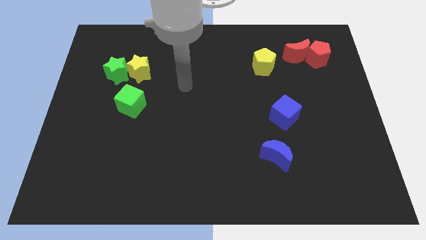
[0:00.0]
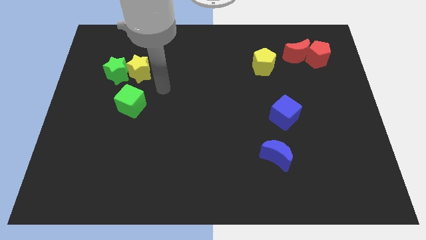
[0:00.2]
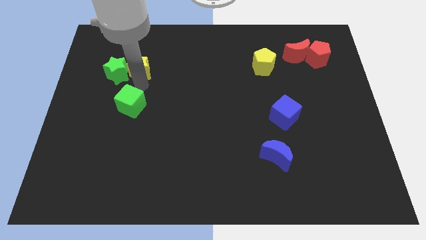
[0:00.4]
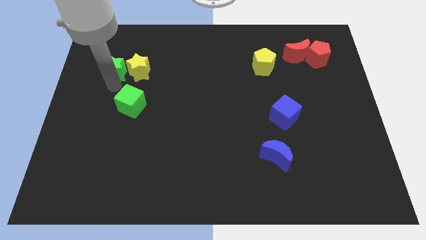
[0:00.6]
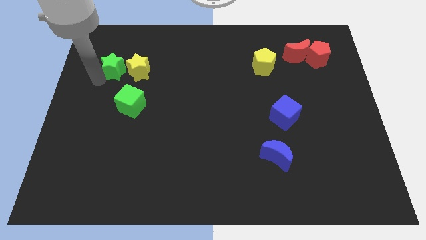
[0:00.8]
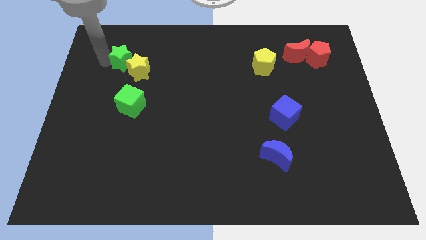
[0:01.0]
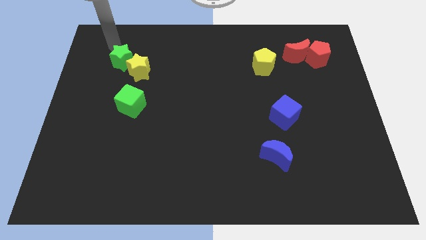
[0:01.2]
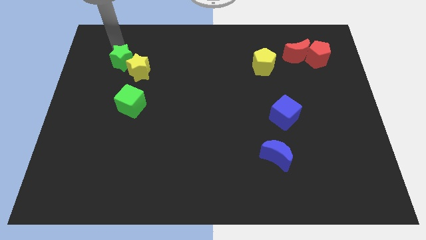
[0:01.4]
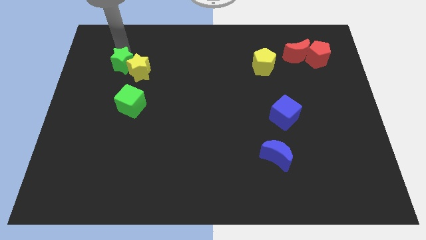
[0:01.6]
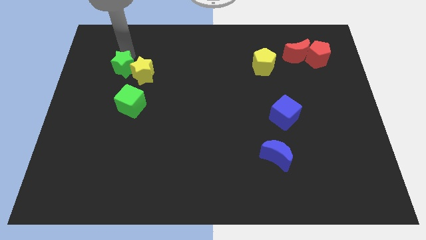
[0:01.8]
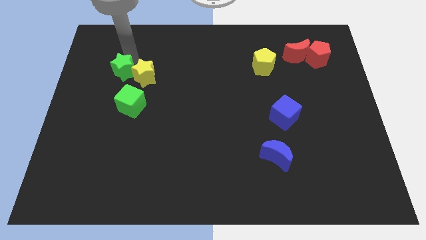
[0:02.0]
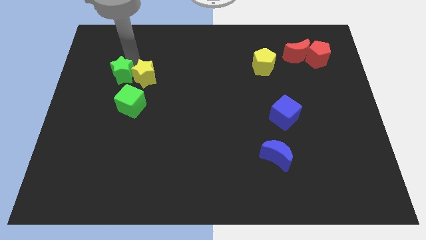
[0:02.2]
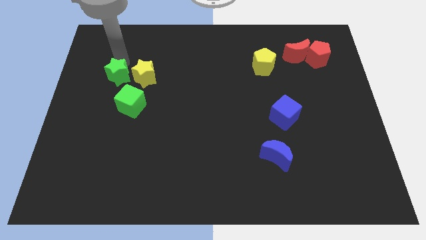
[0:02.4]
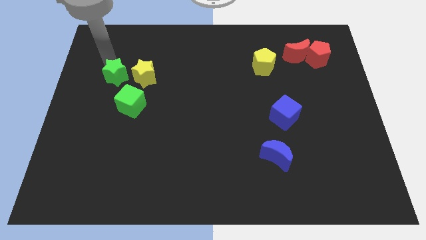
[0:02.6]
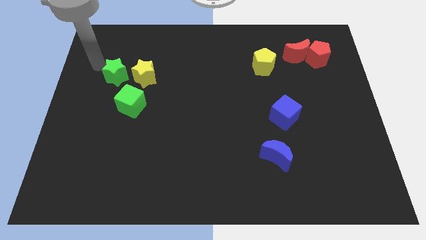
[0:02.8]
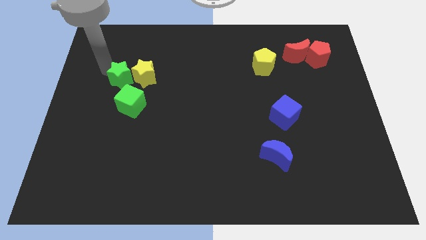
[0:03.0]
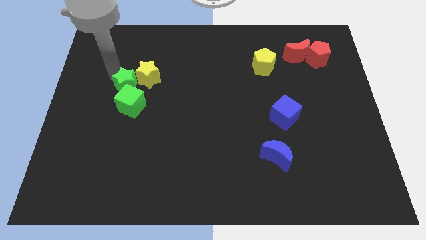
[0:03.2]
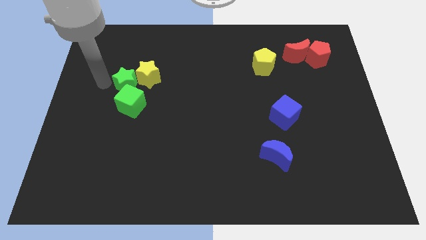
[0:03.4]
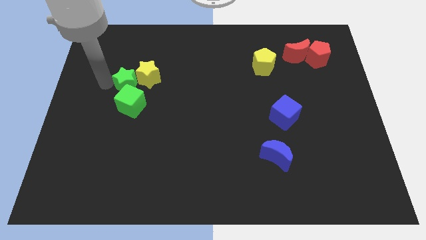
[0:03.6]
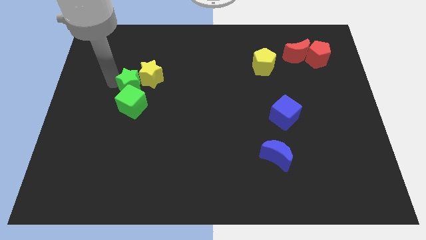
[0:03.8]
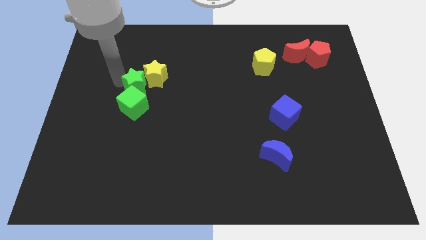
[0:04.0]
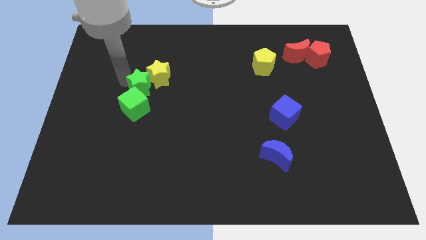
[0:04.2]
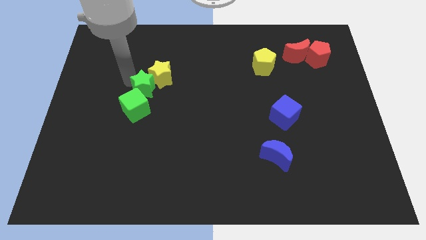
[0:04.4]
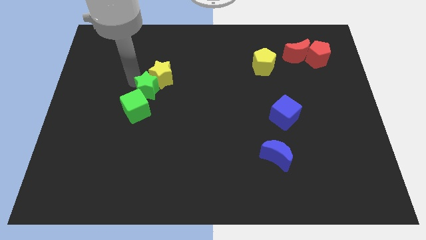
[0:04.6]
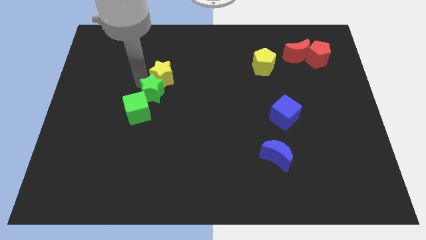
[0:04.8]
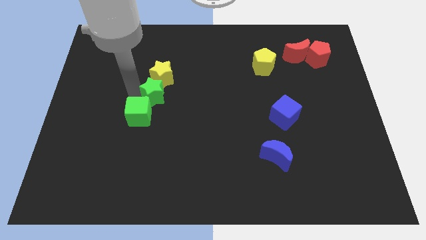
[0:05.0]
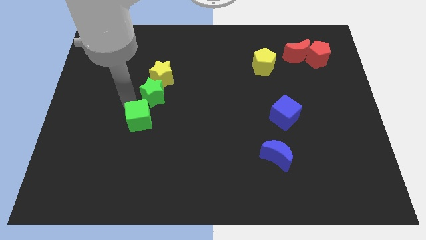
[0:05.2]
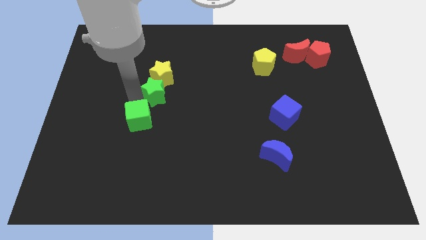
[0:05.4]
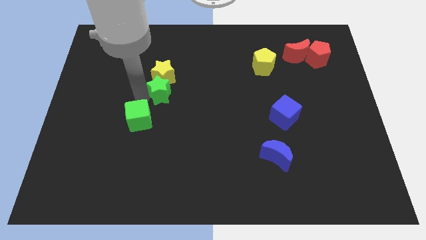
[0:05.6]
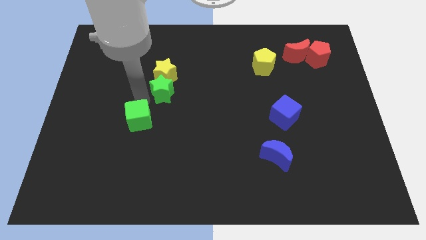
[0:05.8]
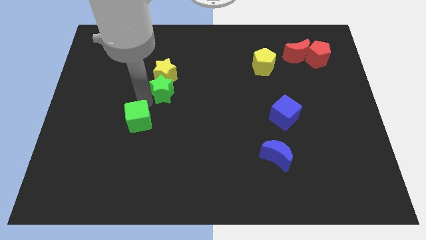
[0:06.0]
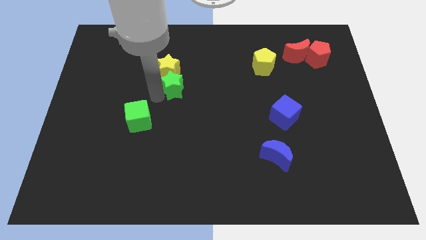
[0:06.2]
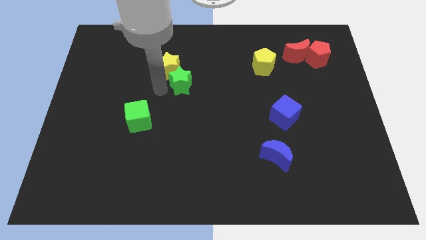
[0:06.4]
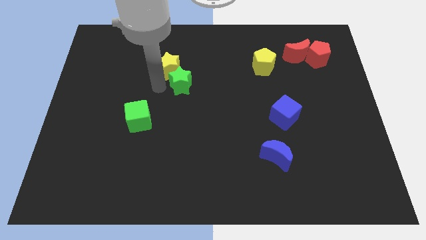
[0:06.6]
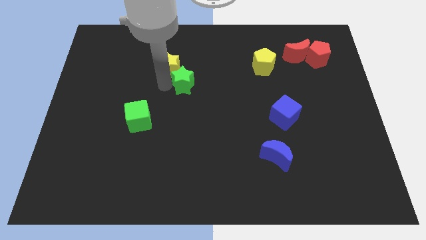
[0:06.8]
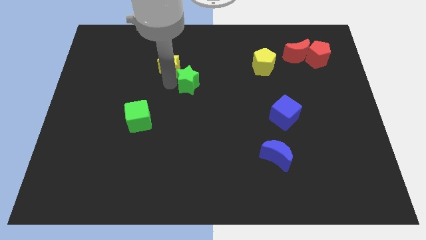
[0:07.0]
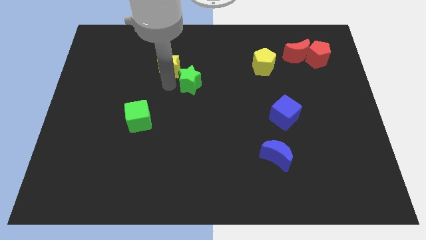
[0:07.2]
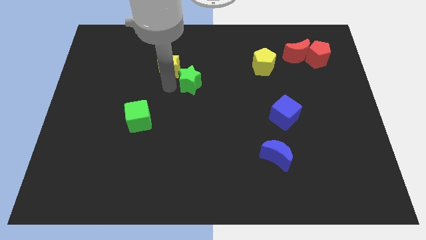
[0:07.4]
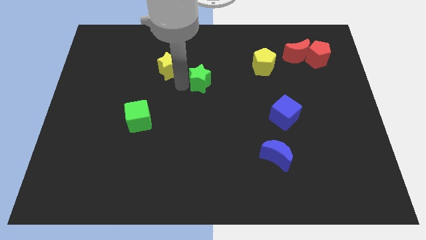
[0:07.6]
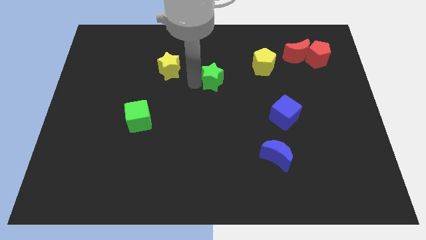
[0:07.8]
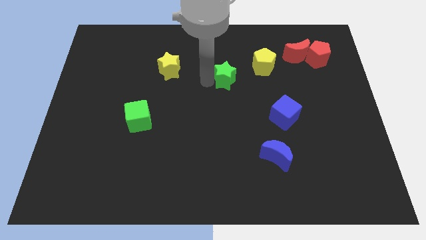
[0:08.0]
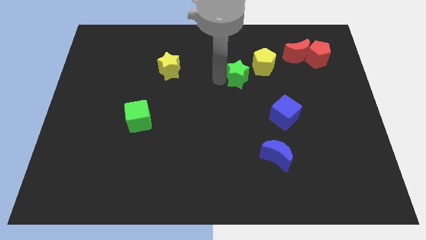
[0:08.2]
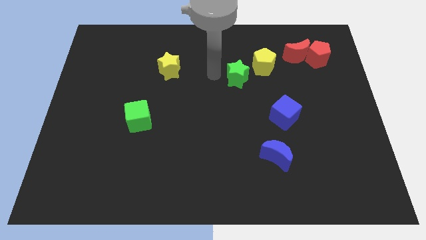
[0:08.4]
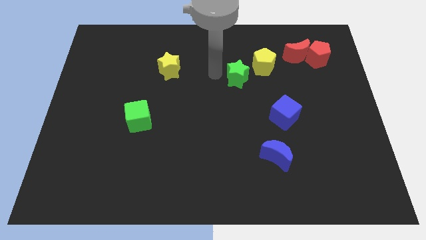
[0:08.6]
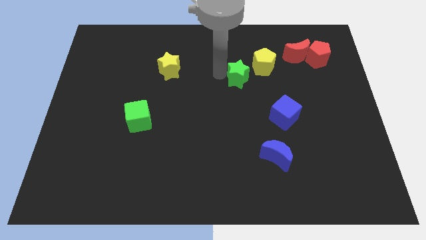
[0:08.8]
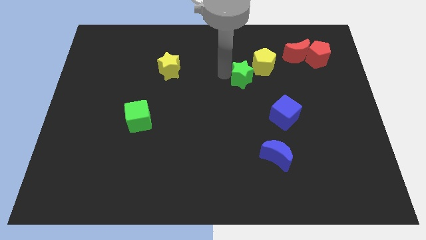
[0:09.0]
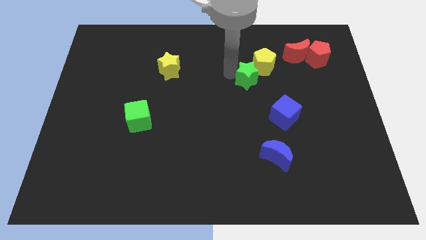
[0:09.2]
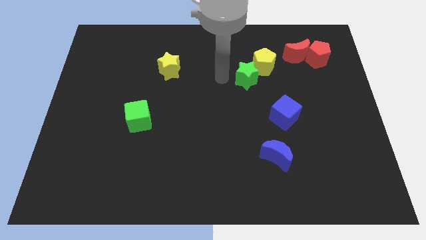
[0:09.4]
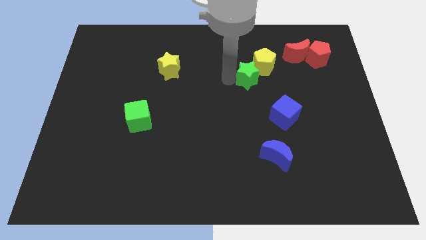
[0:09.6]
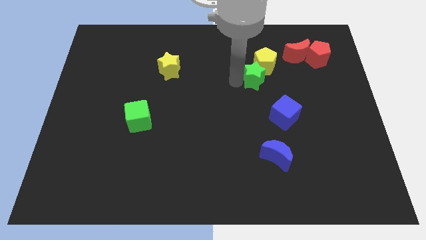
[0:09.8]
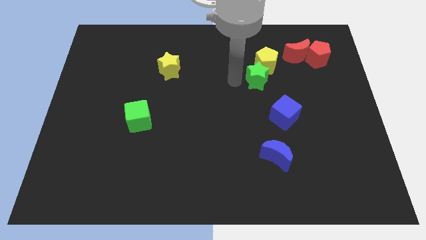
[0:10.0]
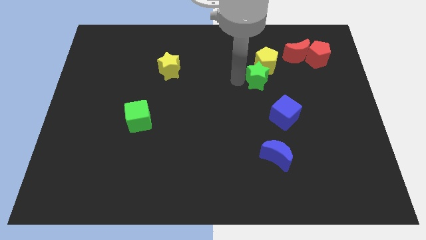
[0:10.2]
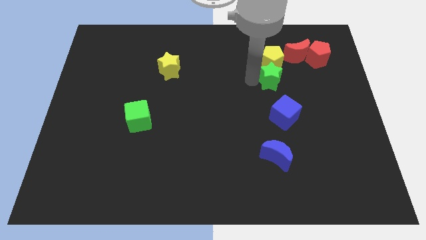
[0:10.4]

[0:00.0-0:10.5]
move the green star diagonally down and to the right of the yellow pentagon

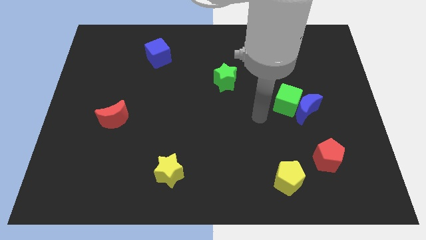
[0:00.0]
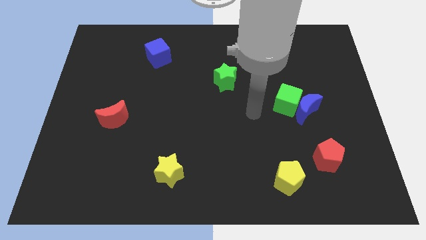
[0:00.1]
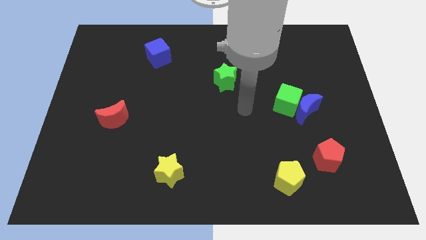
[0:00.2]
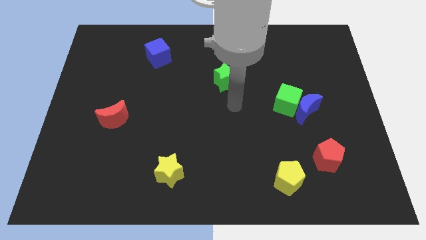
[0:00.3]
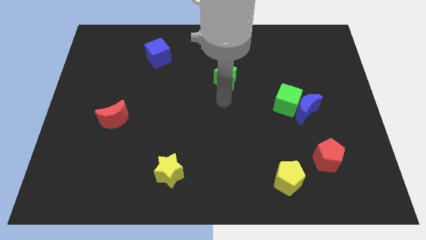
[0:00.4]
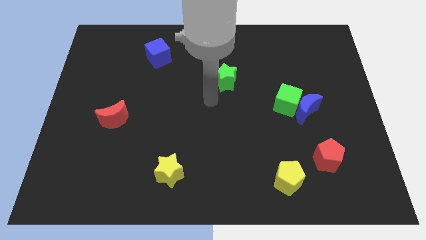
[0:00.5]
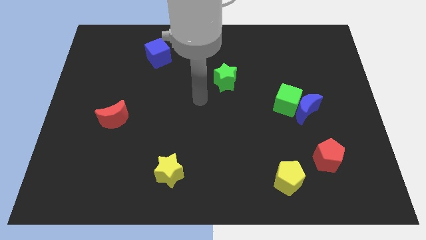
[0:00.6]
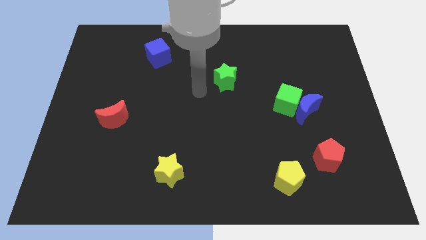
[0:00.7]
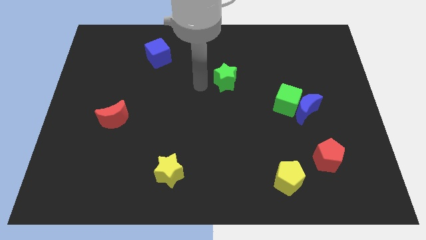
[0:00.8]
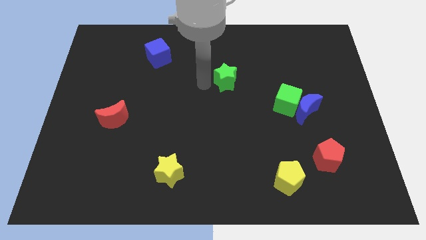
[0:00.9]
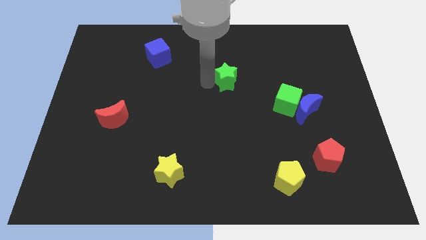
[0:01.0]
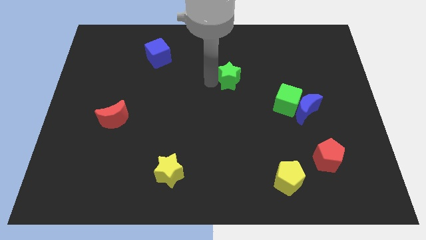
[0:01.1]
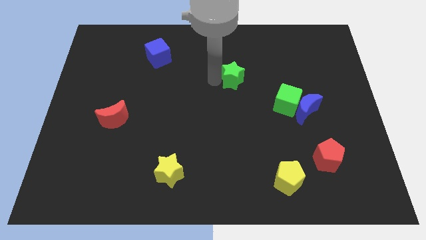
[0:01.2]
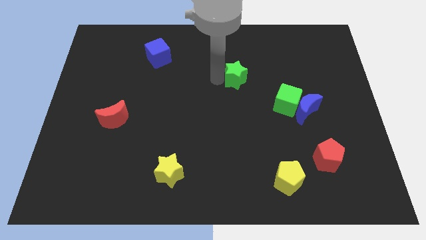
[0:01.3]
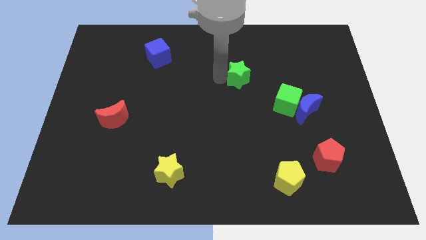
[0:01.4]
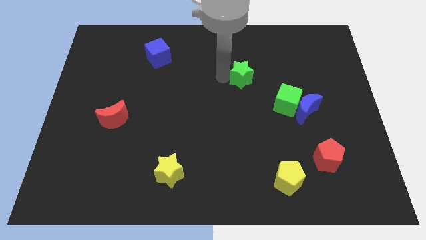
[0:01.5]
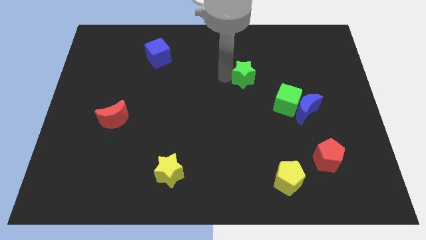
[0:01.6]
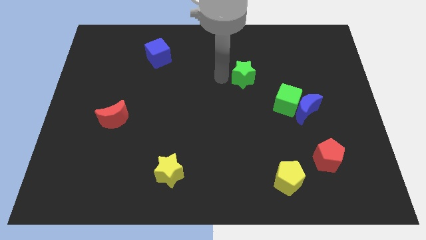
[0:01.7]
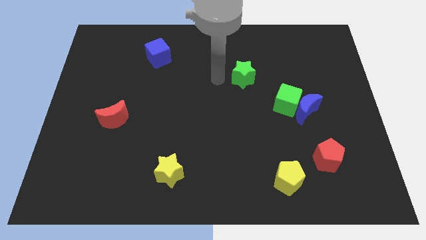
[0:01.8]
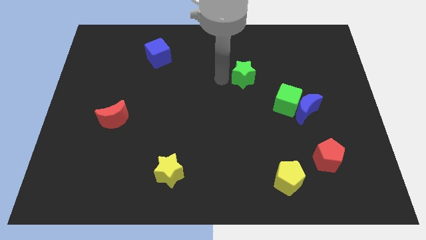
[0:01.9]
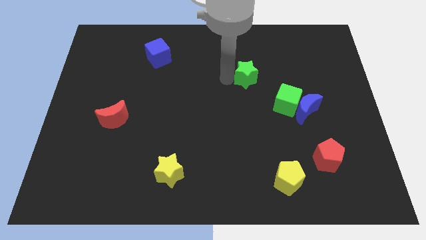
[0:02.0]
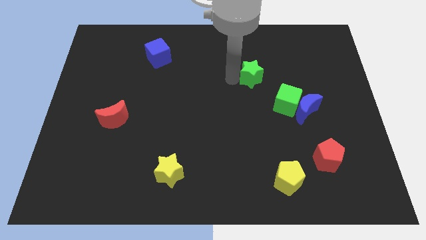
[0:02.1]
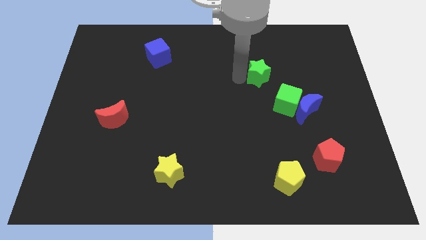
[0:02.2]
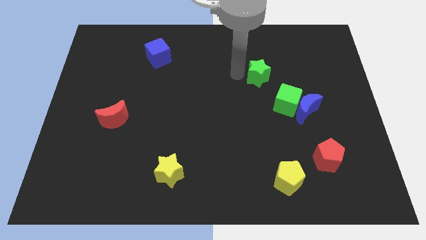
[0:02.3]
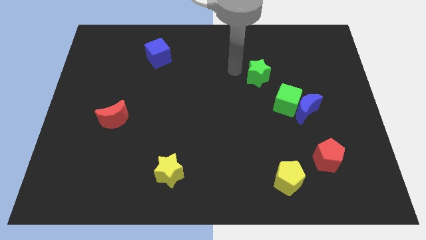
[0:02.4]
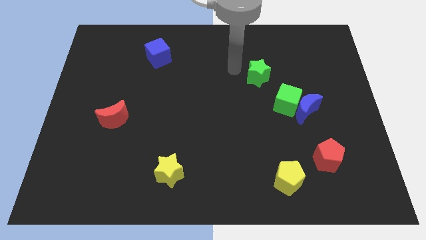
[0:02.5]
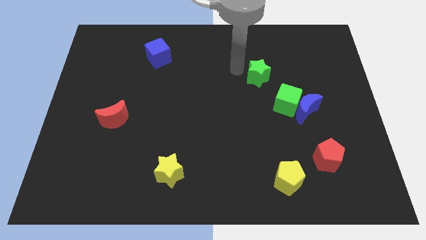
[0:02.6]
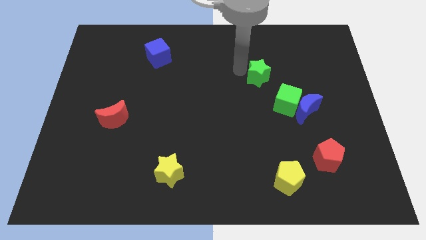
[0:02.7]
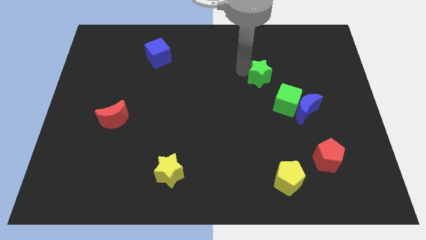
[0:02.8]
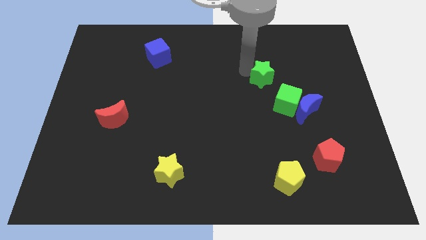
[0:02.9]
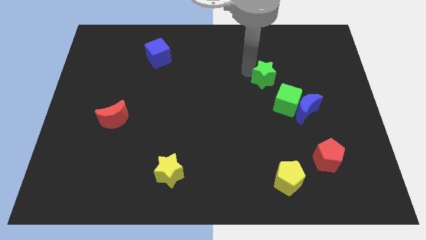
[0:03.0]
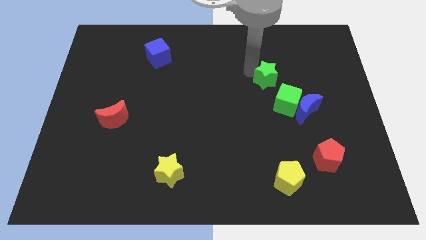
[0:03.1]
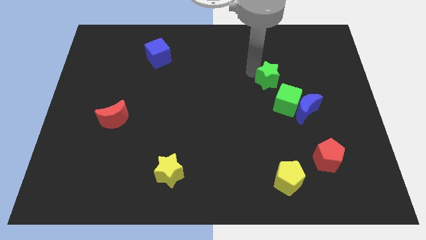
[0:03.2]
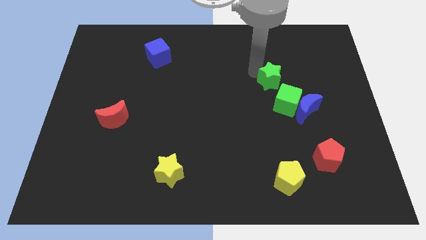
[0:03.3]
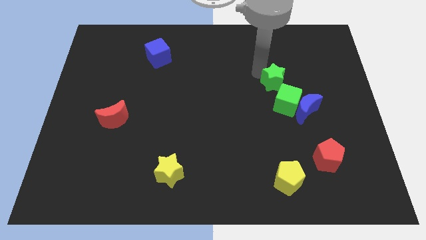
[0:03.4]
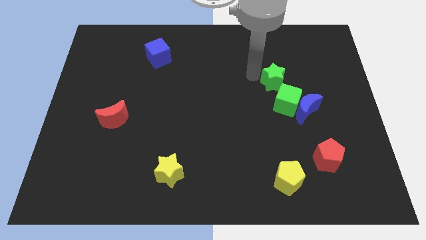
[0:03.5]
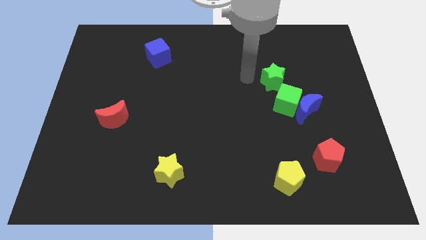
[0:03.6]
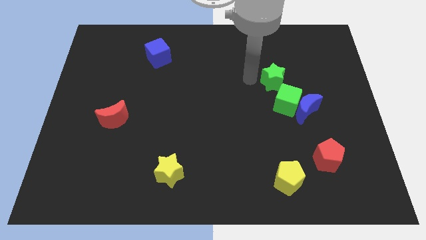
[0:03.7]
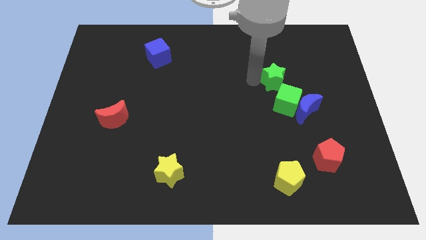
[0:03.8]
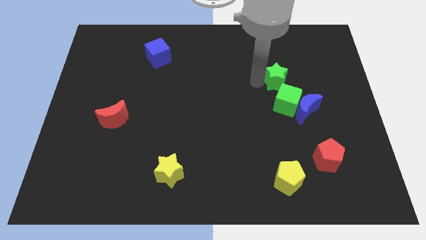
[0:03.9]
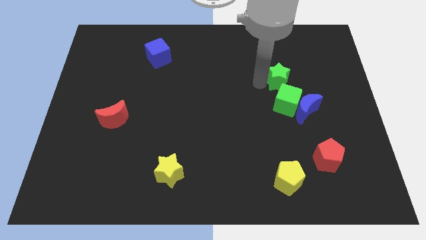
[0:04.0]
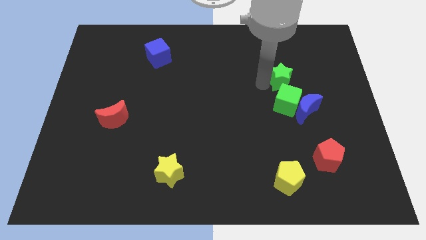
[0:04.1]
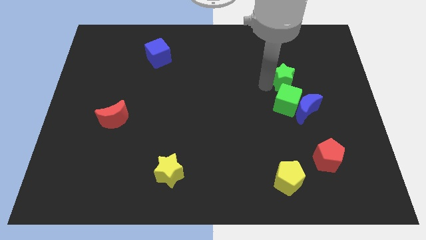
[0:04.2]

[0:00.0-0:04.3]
slide the green star diagonally up and to the right of the green cube
